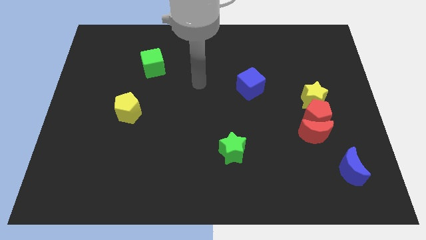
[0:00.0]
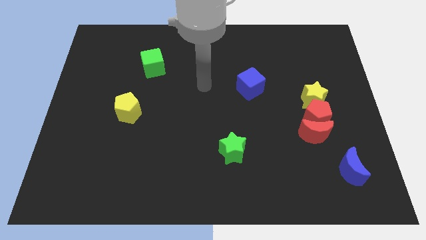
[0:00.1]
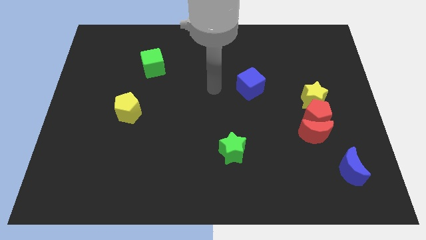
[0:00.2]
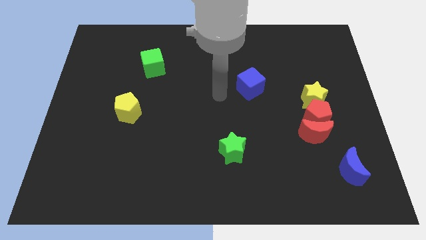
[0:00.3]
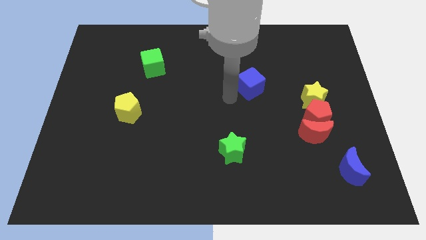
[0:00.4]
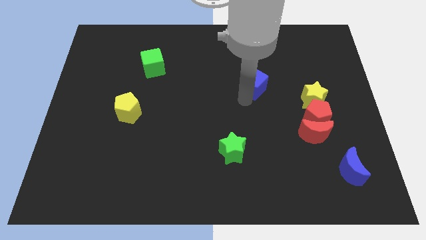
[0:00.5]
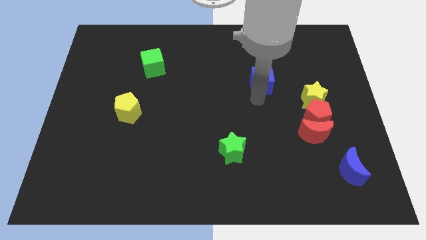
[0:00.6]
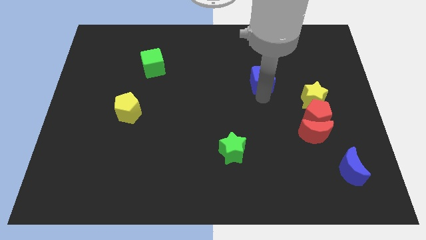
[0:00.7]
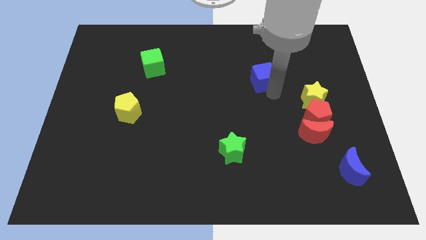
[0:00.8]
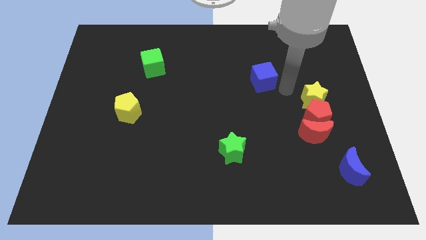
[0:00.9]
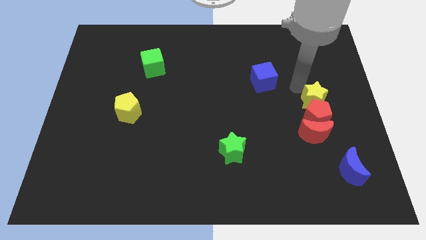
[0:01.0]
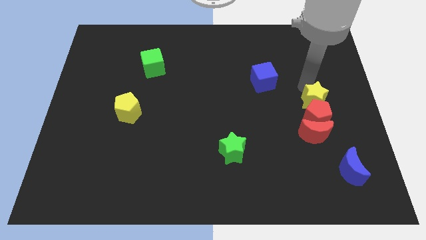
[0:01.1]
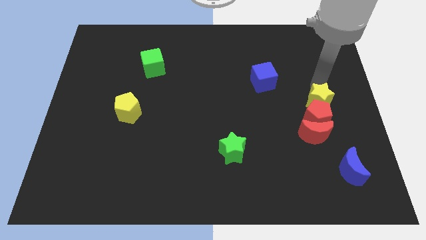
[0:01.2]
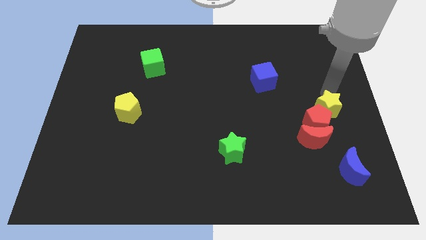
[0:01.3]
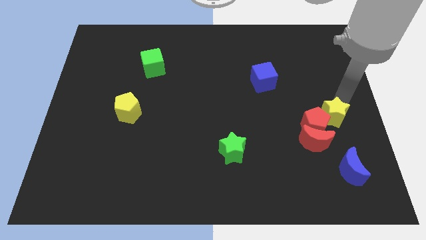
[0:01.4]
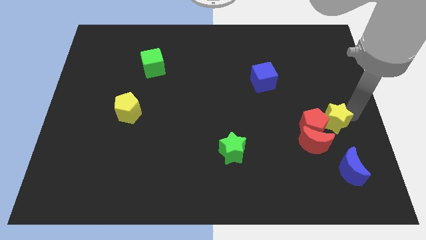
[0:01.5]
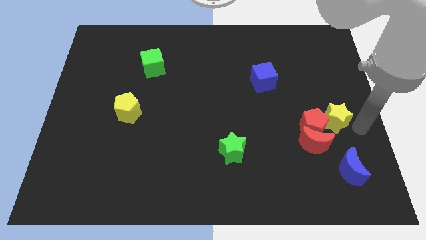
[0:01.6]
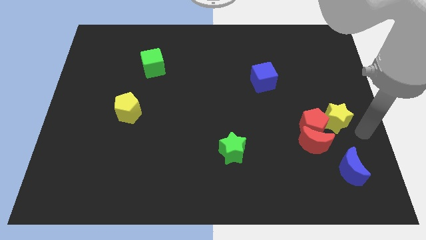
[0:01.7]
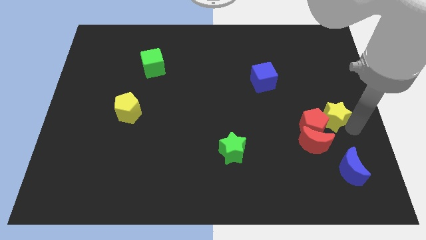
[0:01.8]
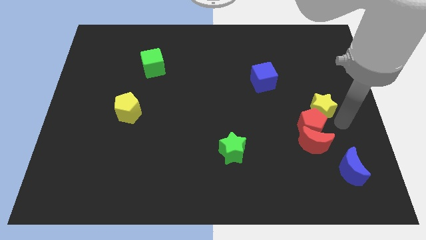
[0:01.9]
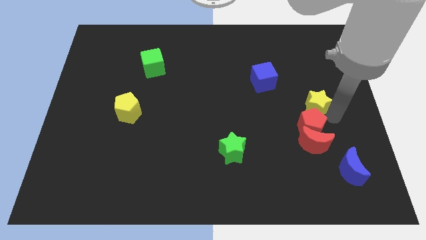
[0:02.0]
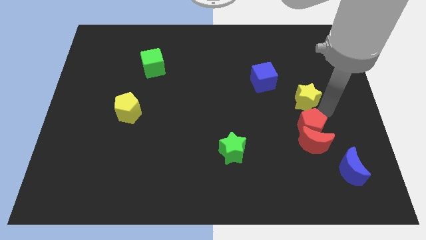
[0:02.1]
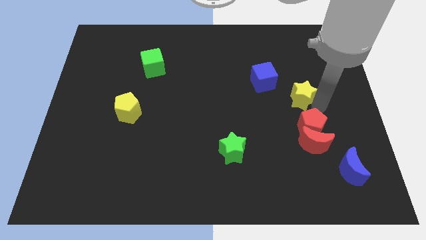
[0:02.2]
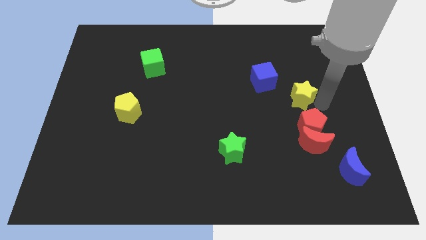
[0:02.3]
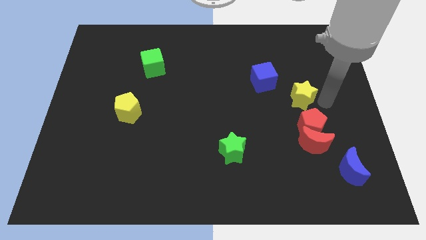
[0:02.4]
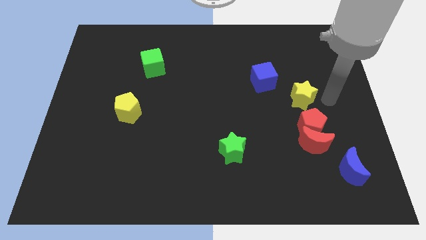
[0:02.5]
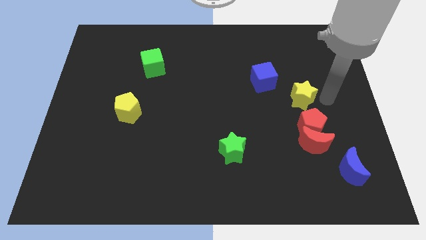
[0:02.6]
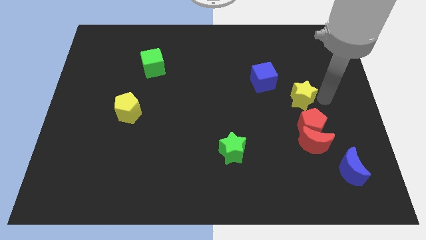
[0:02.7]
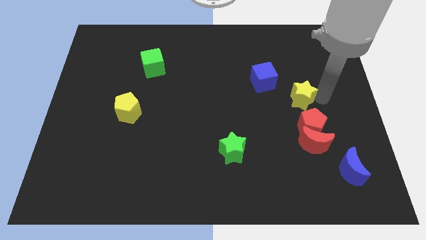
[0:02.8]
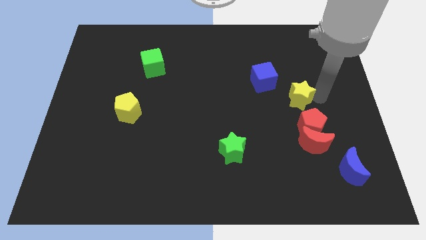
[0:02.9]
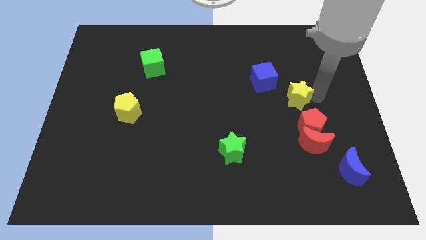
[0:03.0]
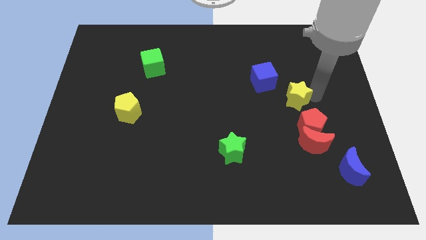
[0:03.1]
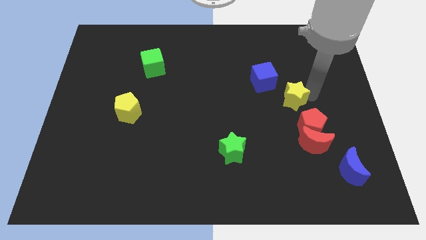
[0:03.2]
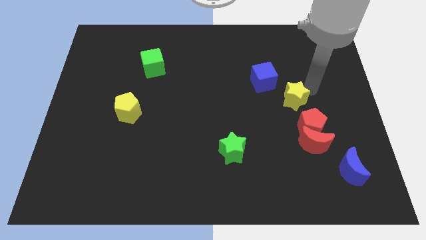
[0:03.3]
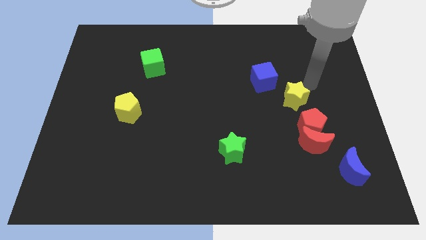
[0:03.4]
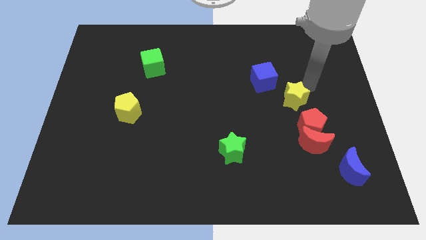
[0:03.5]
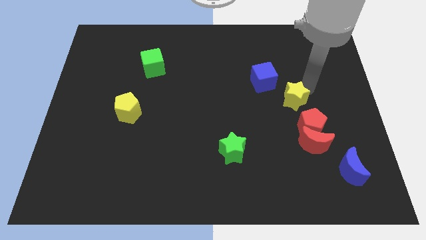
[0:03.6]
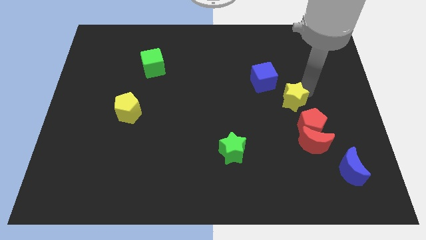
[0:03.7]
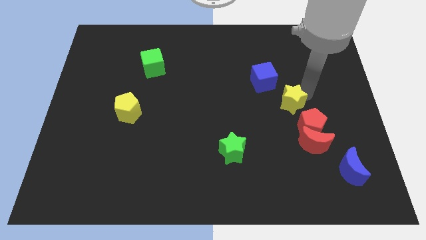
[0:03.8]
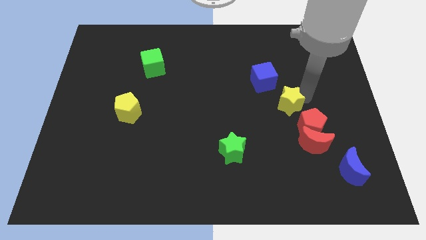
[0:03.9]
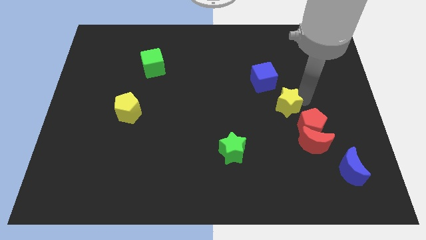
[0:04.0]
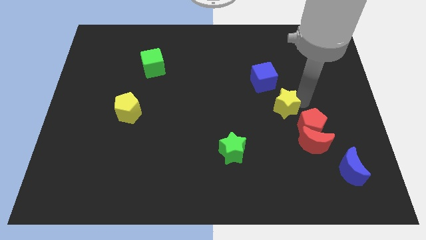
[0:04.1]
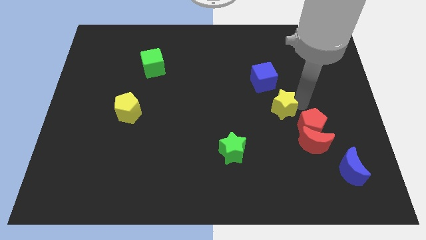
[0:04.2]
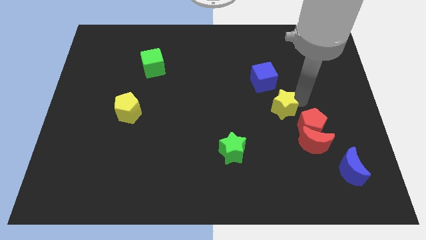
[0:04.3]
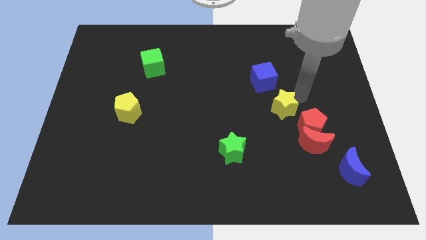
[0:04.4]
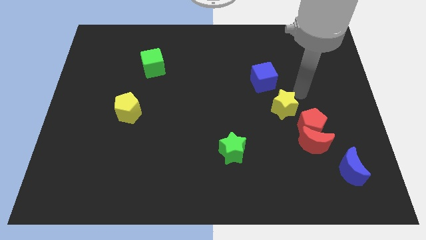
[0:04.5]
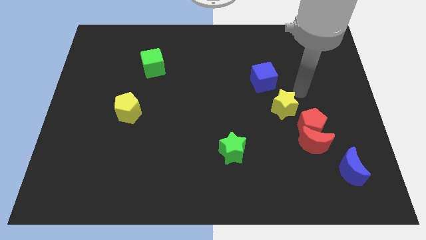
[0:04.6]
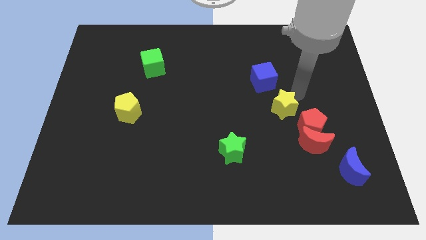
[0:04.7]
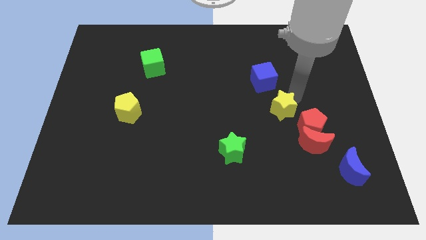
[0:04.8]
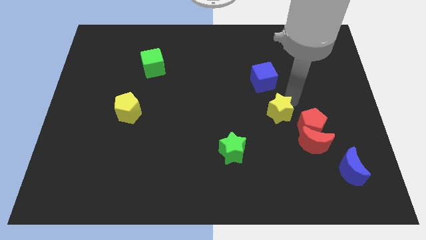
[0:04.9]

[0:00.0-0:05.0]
slightly push the yellow star down and to the left diagonally

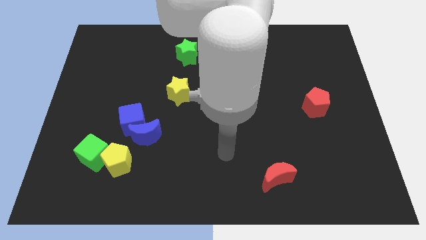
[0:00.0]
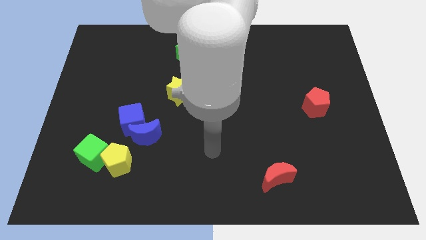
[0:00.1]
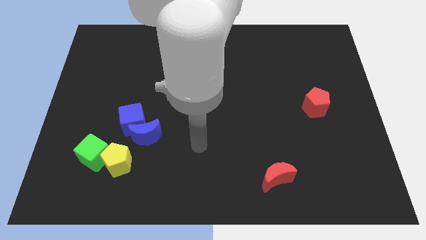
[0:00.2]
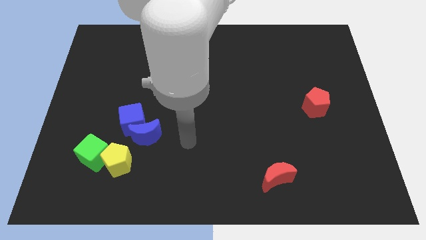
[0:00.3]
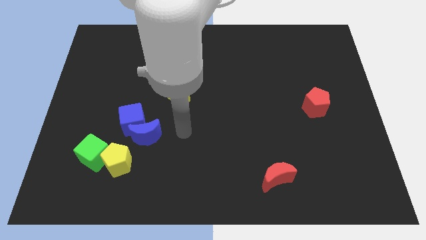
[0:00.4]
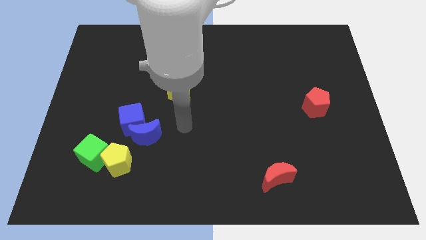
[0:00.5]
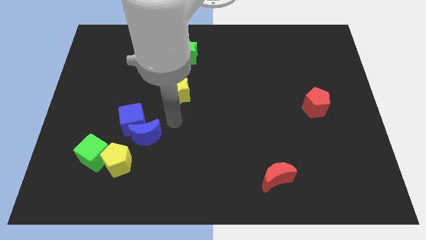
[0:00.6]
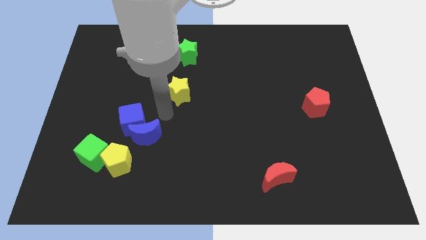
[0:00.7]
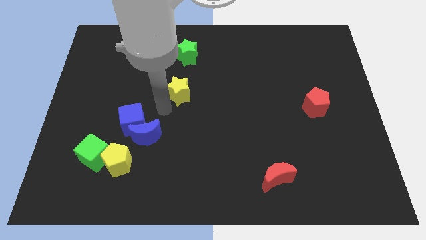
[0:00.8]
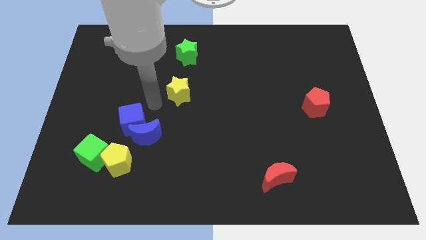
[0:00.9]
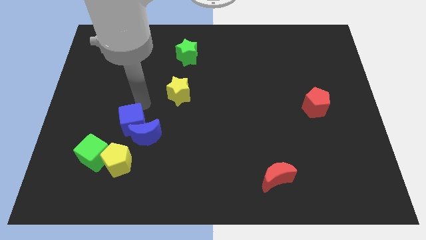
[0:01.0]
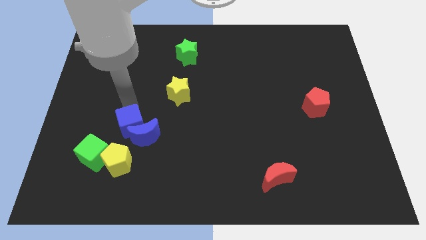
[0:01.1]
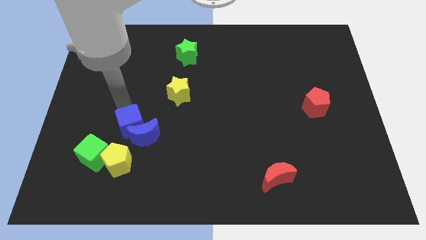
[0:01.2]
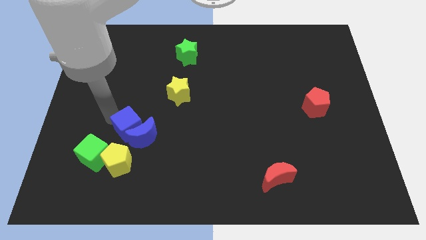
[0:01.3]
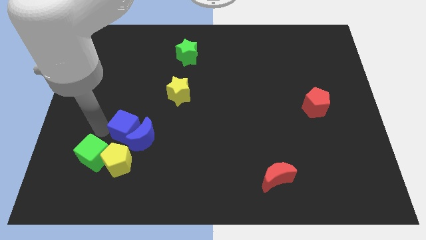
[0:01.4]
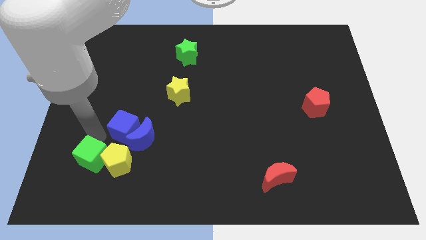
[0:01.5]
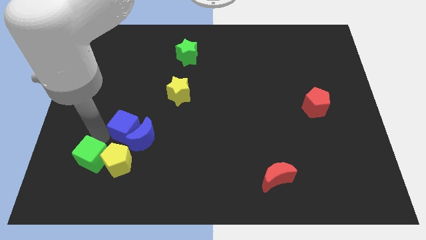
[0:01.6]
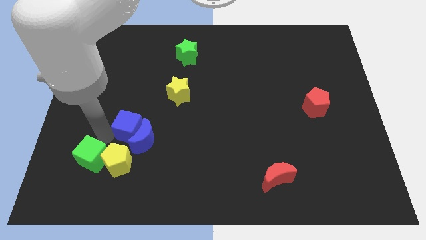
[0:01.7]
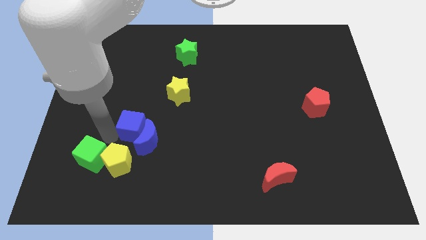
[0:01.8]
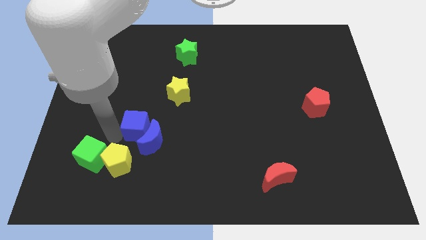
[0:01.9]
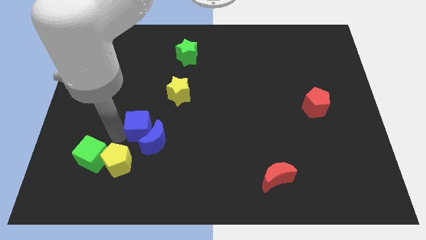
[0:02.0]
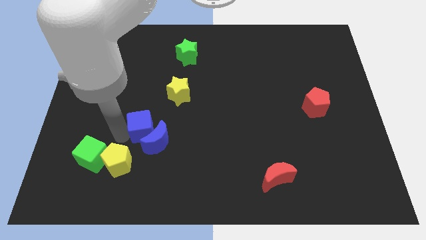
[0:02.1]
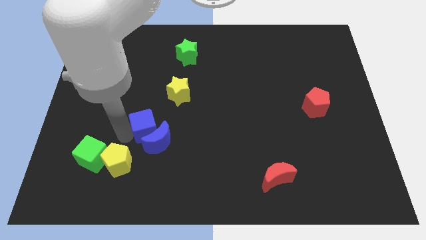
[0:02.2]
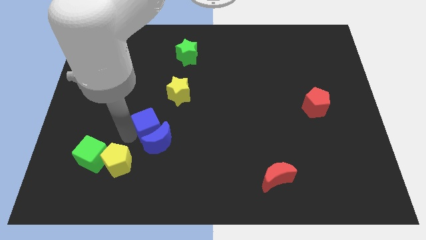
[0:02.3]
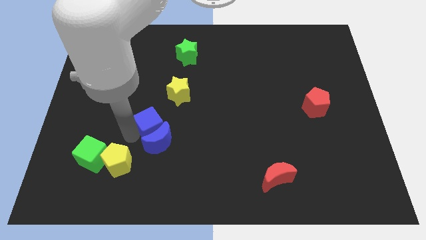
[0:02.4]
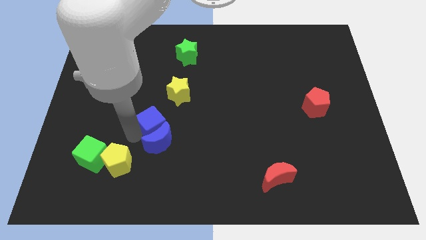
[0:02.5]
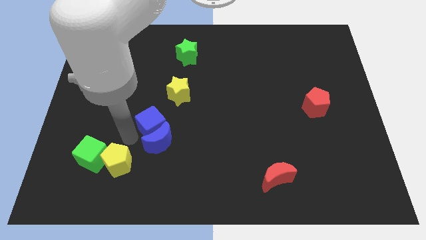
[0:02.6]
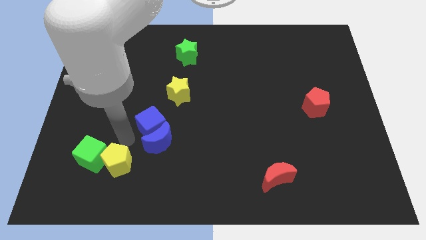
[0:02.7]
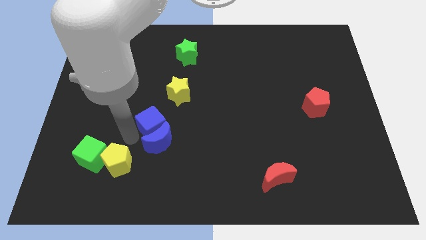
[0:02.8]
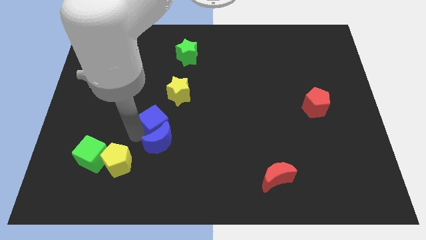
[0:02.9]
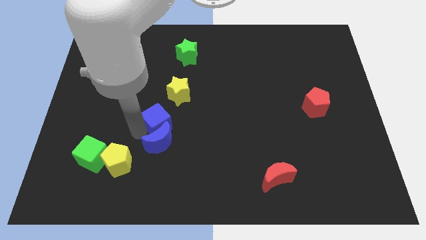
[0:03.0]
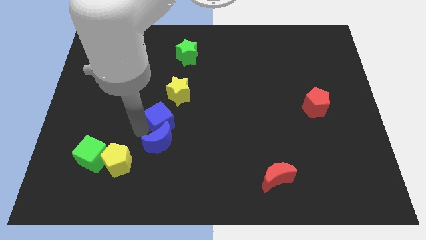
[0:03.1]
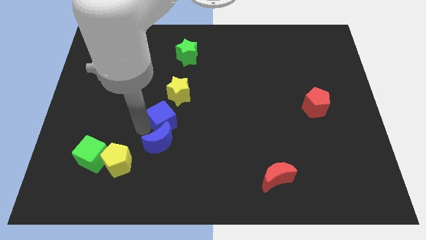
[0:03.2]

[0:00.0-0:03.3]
move the blue cube a little bit to the right
